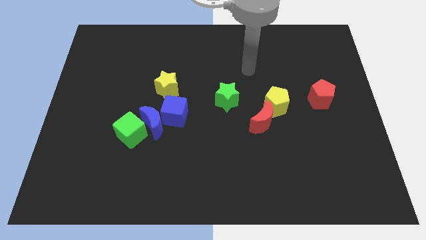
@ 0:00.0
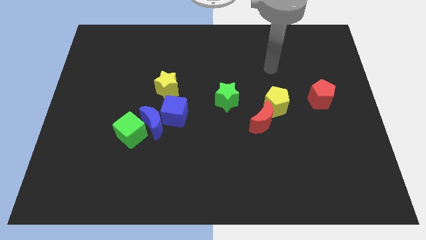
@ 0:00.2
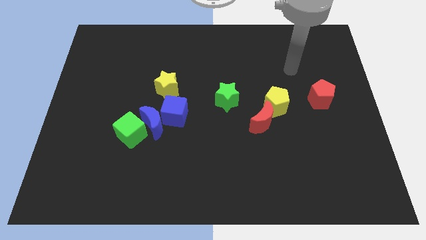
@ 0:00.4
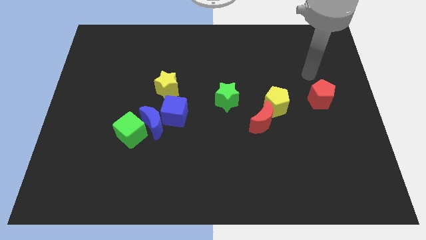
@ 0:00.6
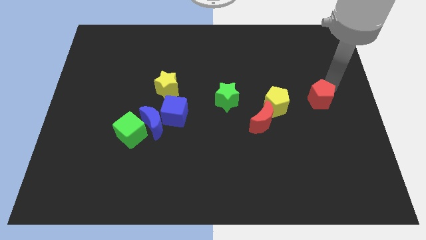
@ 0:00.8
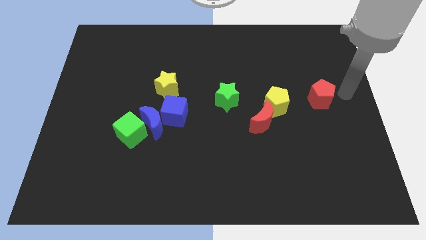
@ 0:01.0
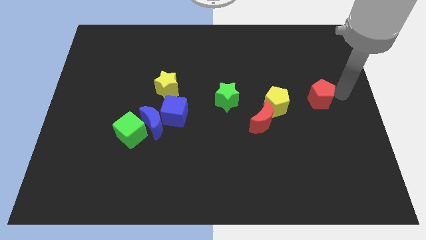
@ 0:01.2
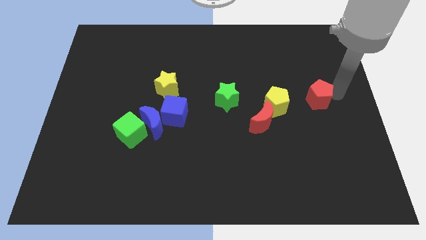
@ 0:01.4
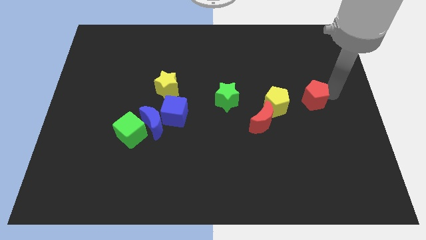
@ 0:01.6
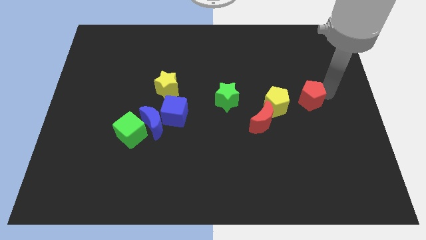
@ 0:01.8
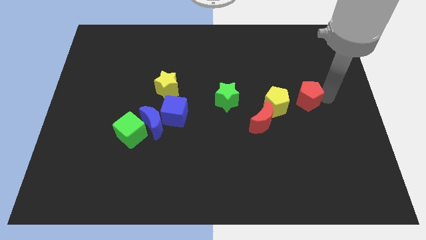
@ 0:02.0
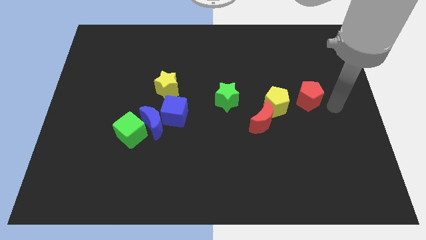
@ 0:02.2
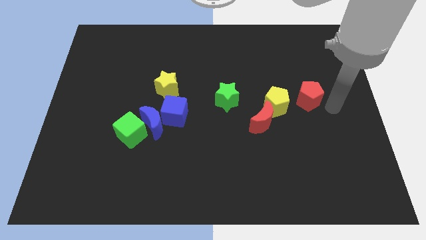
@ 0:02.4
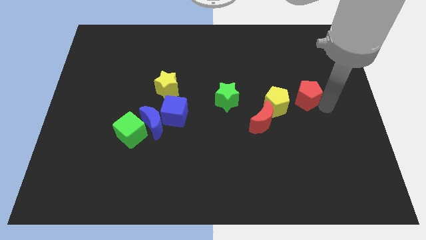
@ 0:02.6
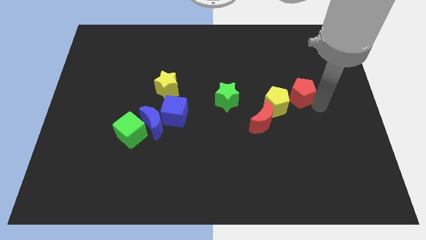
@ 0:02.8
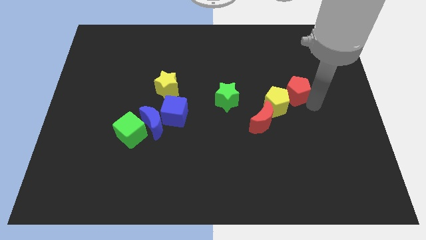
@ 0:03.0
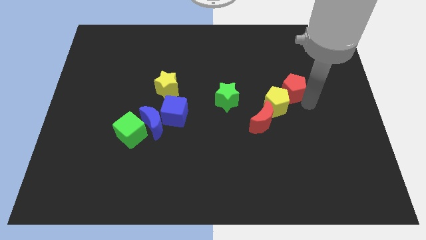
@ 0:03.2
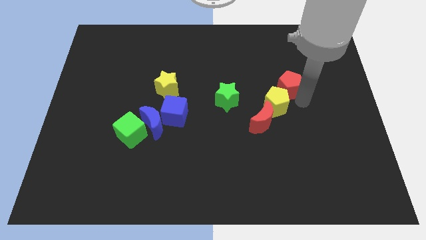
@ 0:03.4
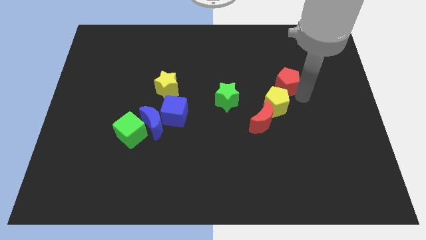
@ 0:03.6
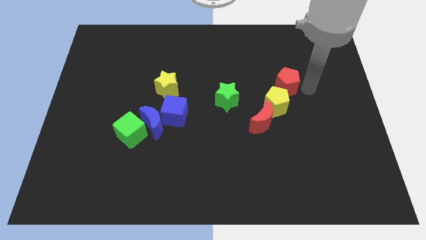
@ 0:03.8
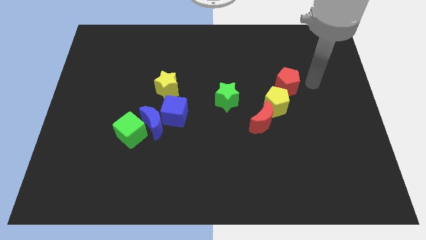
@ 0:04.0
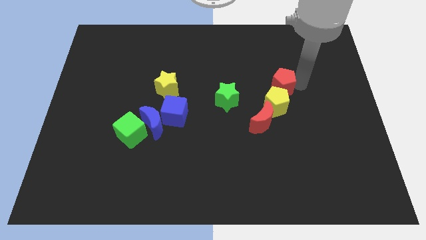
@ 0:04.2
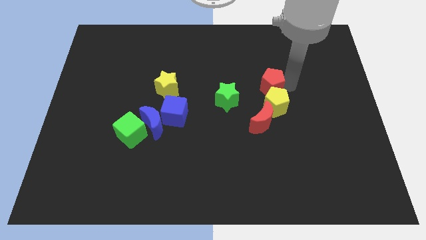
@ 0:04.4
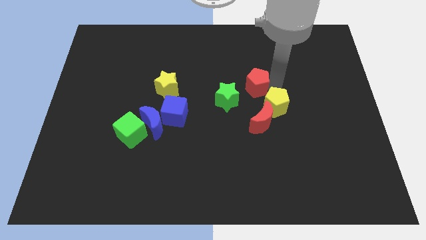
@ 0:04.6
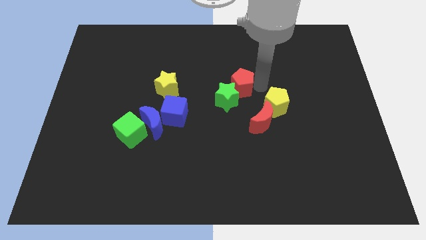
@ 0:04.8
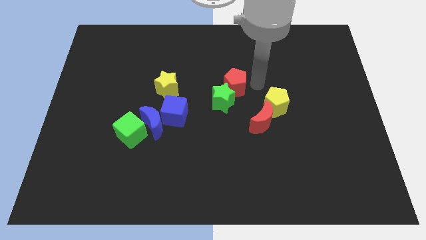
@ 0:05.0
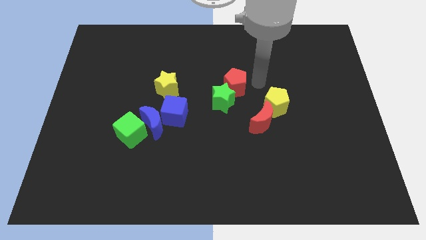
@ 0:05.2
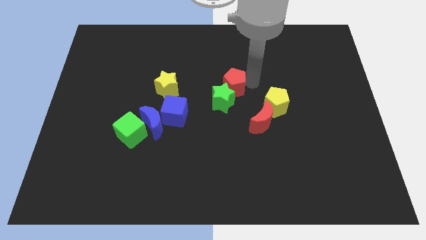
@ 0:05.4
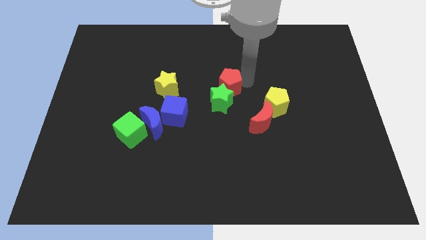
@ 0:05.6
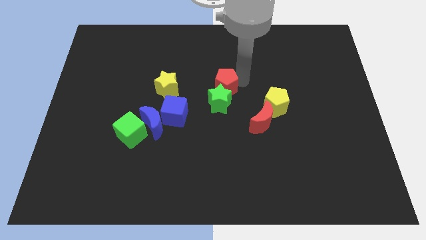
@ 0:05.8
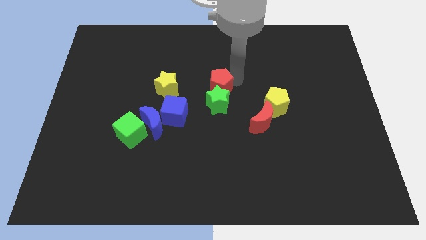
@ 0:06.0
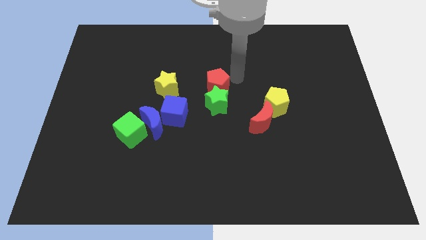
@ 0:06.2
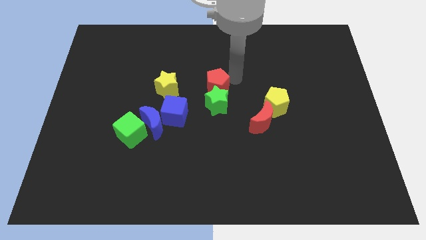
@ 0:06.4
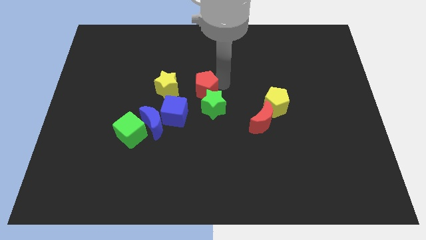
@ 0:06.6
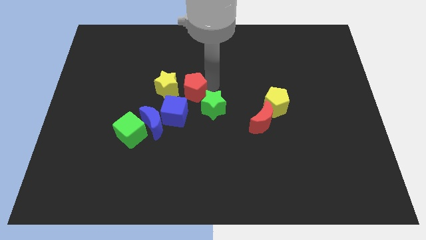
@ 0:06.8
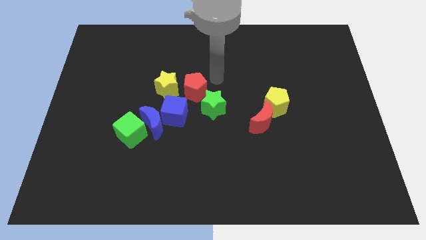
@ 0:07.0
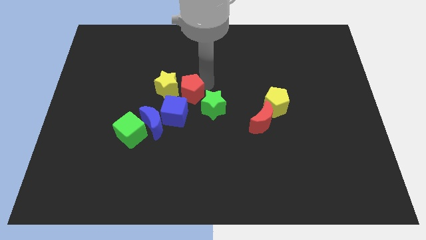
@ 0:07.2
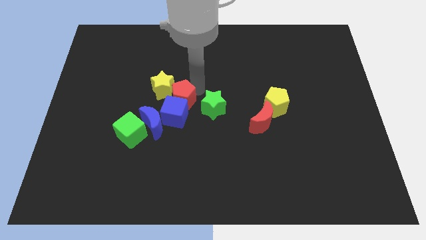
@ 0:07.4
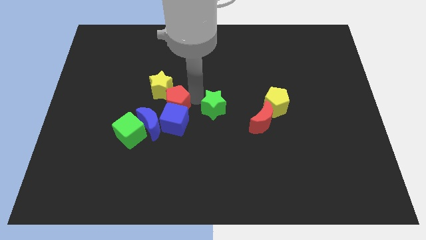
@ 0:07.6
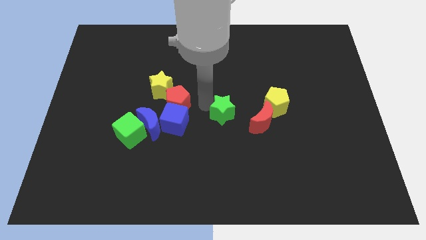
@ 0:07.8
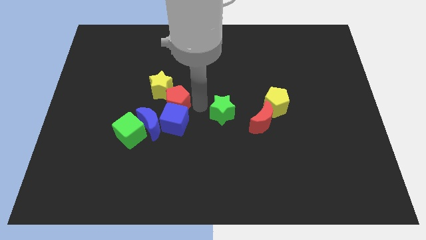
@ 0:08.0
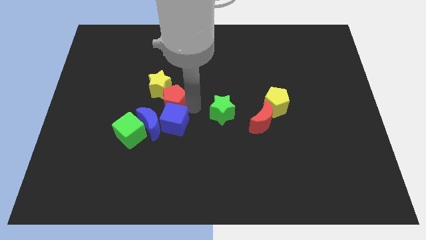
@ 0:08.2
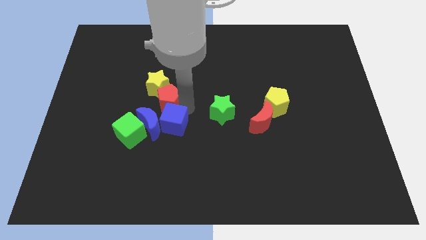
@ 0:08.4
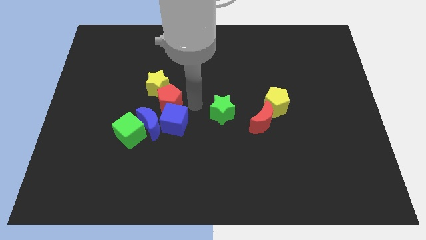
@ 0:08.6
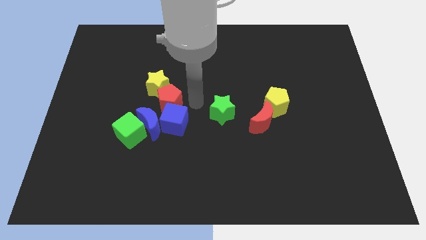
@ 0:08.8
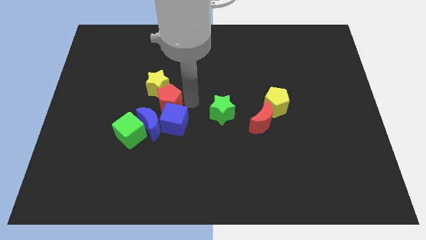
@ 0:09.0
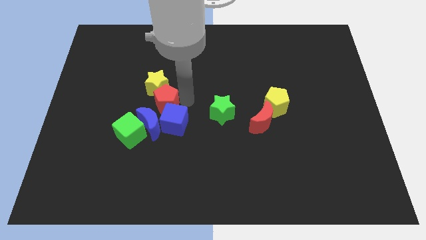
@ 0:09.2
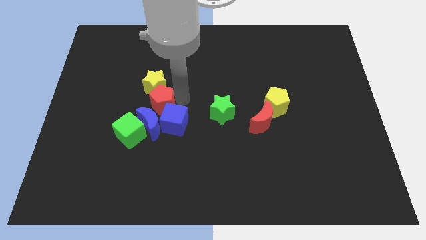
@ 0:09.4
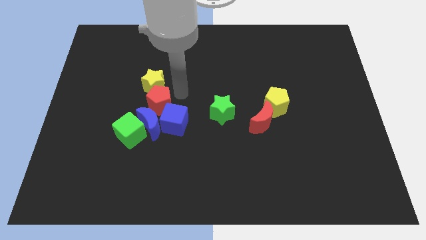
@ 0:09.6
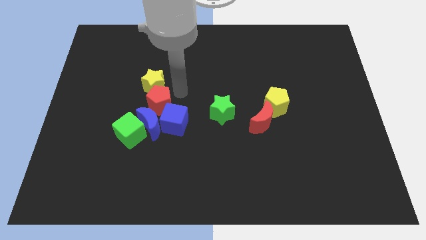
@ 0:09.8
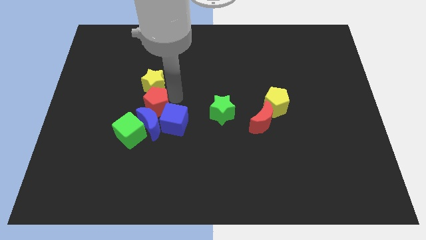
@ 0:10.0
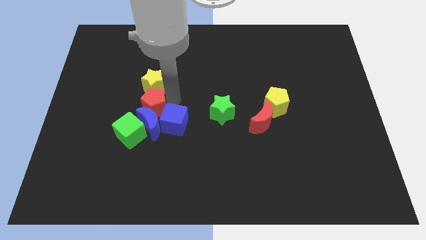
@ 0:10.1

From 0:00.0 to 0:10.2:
put the red pentagon left of the blue cube

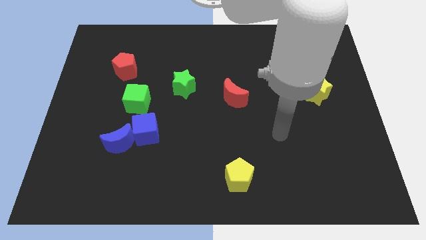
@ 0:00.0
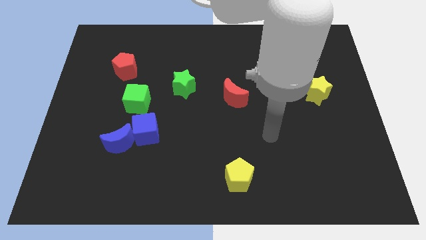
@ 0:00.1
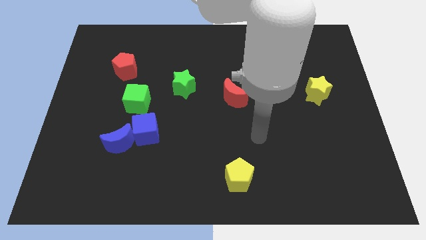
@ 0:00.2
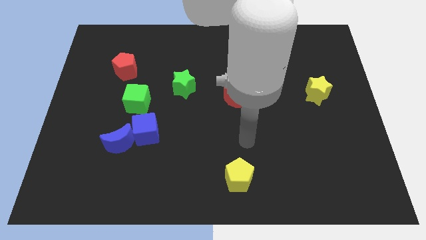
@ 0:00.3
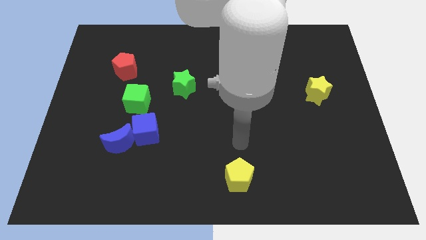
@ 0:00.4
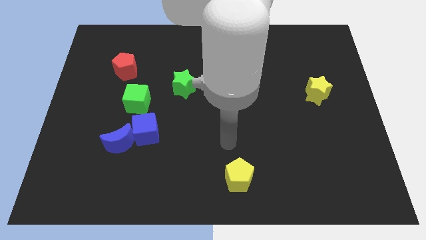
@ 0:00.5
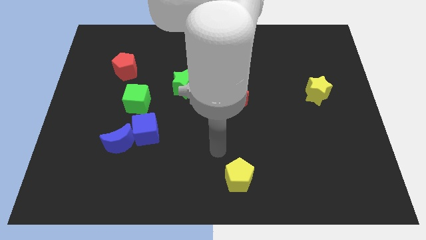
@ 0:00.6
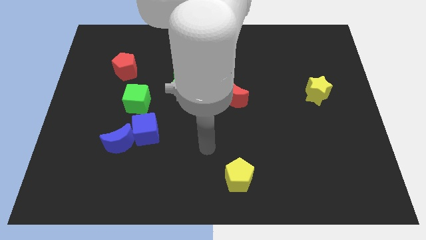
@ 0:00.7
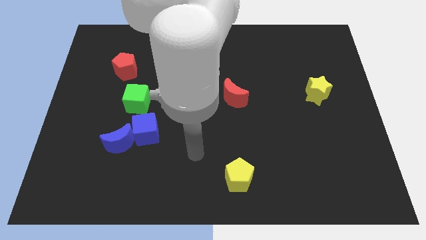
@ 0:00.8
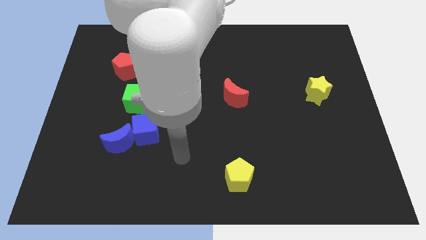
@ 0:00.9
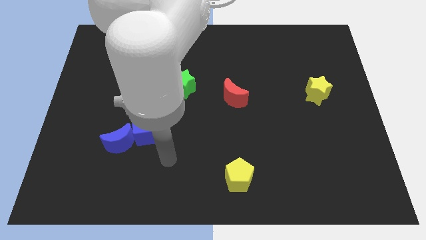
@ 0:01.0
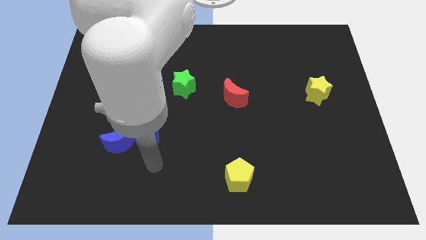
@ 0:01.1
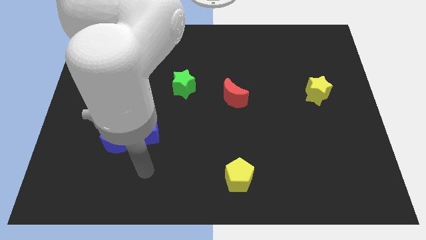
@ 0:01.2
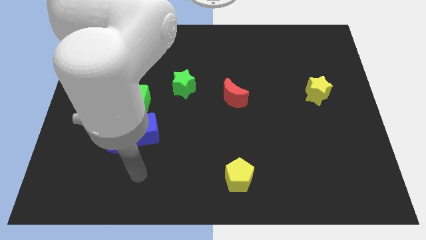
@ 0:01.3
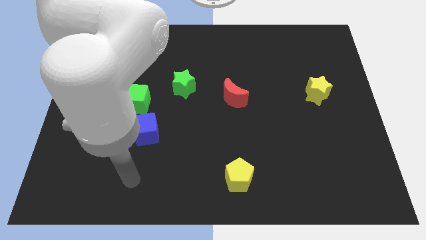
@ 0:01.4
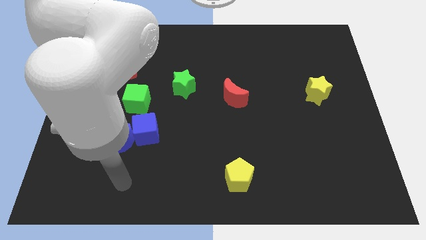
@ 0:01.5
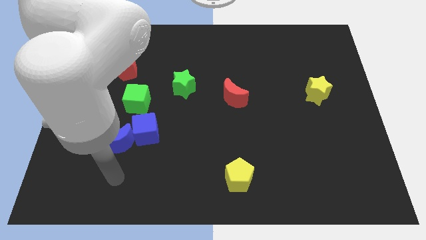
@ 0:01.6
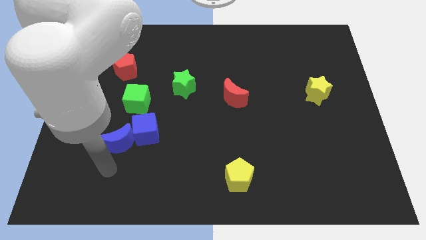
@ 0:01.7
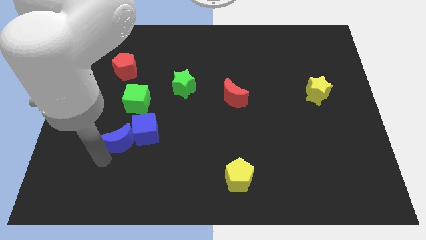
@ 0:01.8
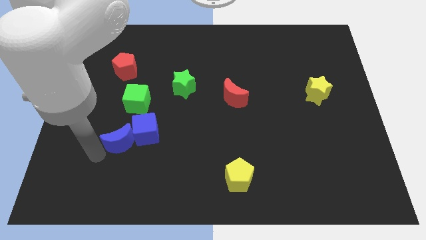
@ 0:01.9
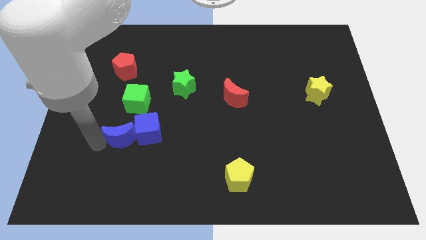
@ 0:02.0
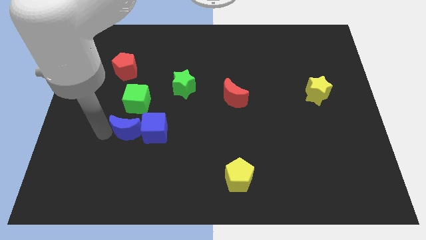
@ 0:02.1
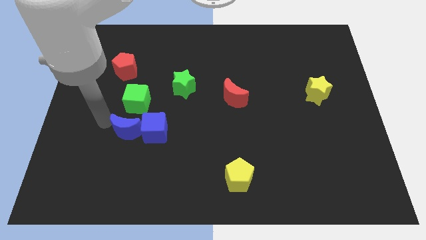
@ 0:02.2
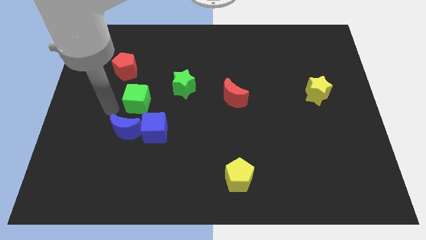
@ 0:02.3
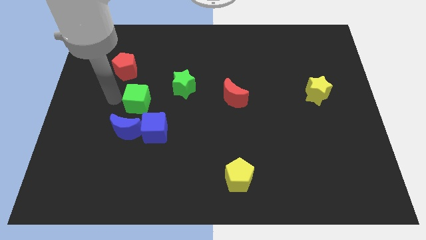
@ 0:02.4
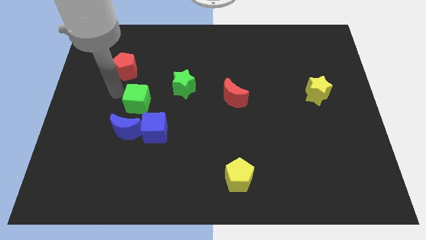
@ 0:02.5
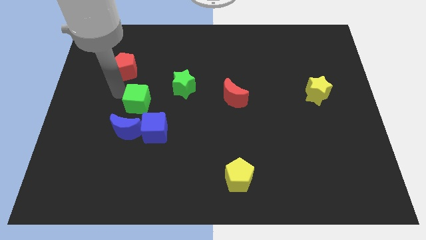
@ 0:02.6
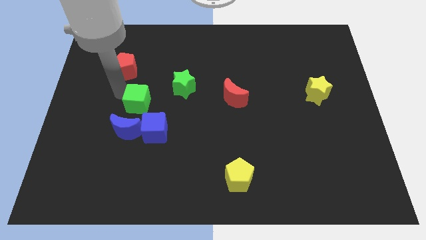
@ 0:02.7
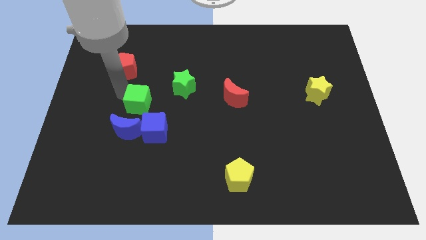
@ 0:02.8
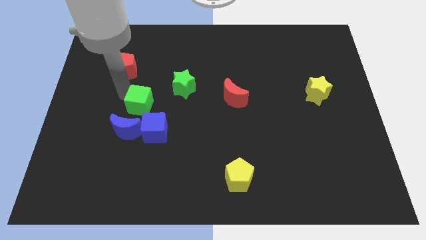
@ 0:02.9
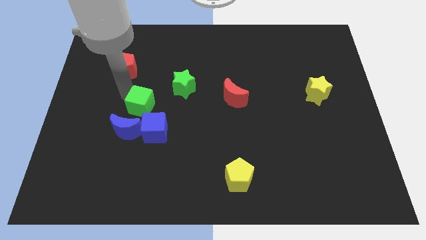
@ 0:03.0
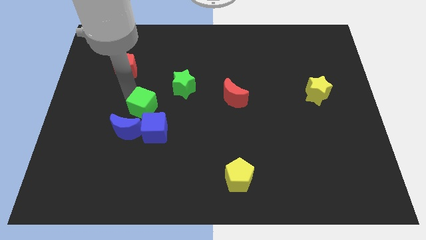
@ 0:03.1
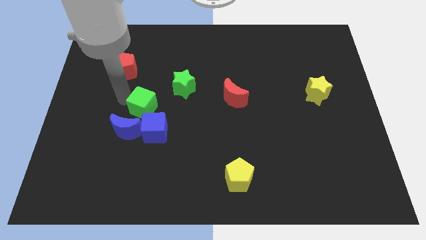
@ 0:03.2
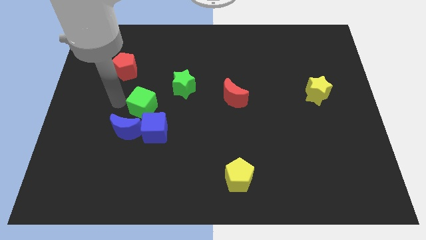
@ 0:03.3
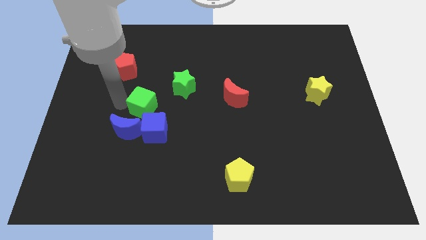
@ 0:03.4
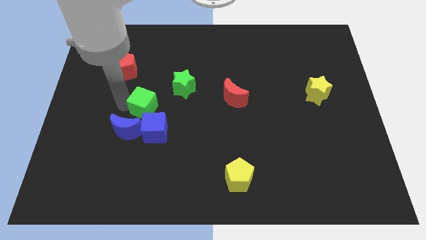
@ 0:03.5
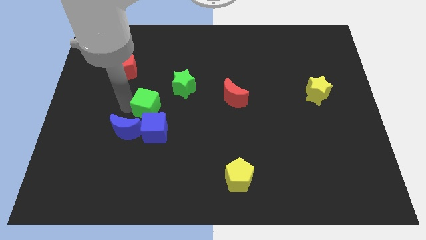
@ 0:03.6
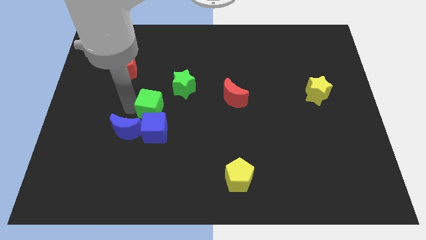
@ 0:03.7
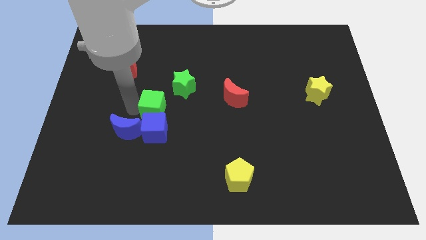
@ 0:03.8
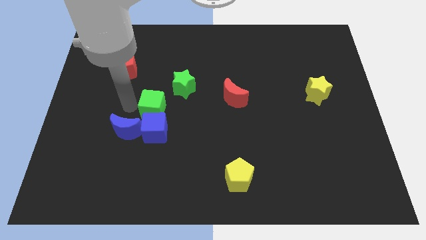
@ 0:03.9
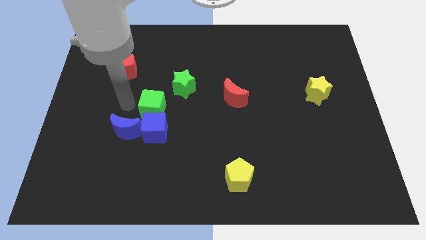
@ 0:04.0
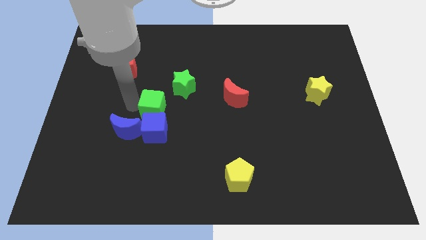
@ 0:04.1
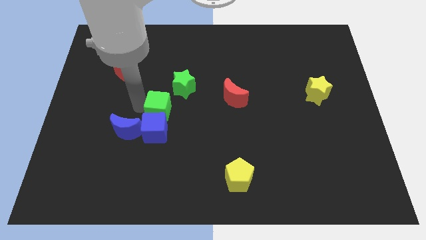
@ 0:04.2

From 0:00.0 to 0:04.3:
slide the green cube to the top right side of the blue cube
